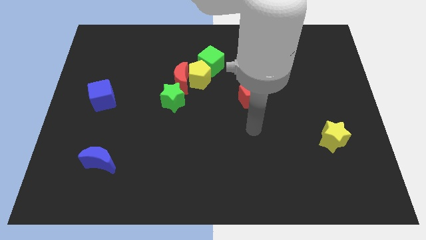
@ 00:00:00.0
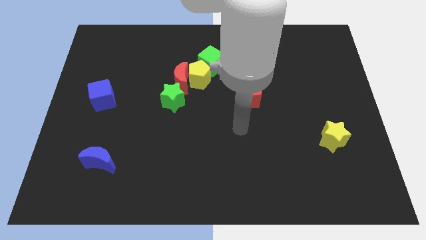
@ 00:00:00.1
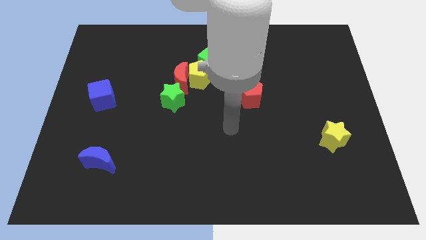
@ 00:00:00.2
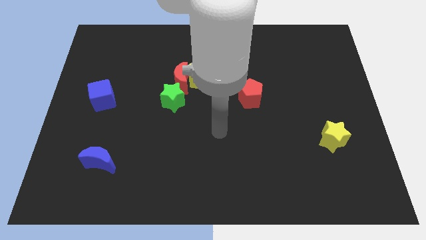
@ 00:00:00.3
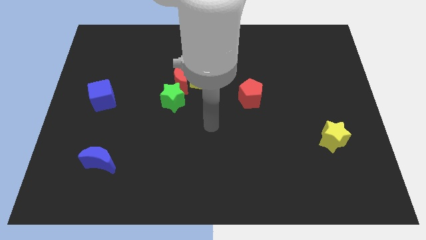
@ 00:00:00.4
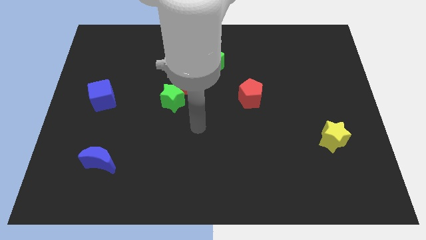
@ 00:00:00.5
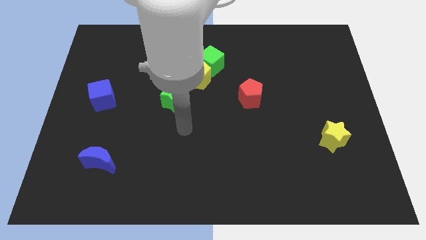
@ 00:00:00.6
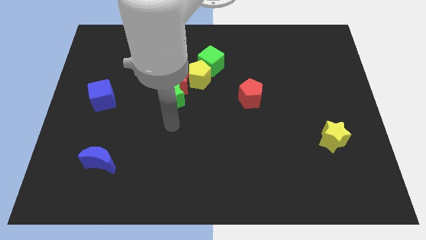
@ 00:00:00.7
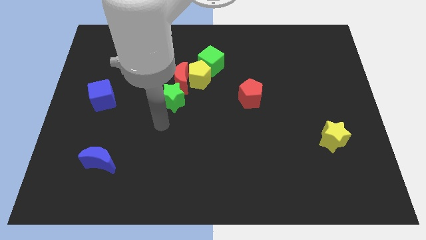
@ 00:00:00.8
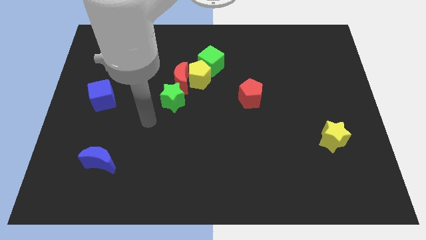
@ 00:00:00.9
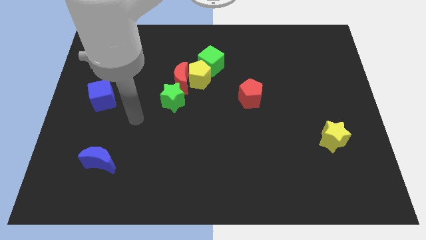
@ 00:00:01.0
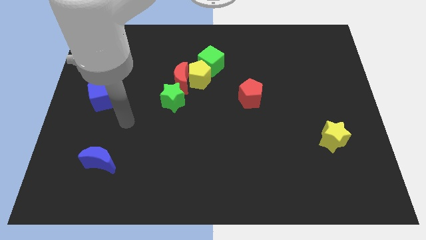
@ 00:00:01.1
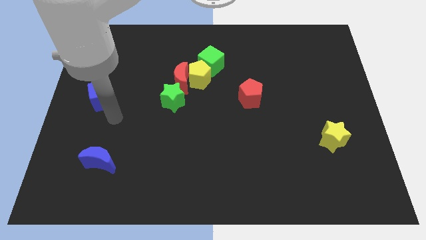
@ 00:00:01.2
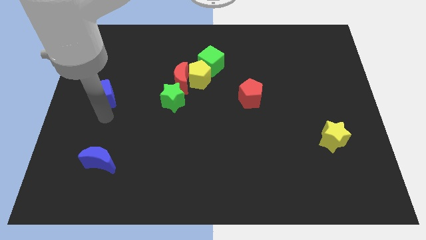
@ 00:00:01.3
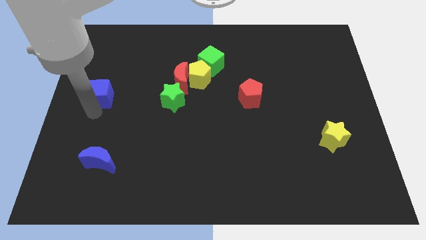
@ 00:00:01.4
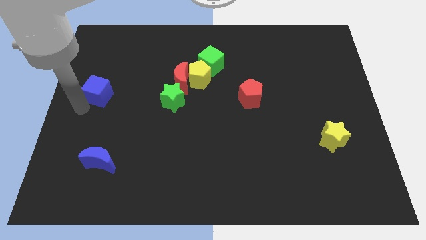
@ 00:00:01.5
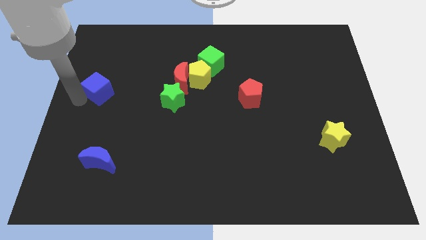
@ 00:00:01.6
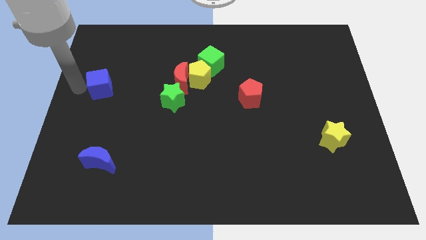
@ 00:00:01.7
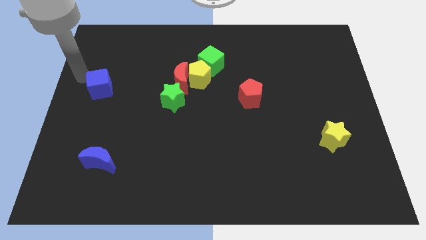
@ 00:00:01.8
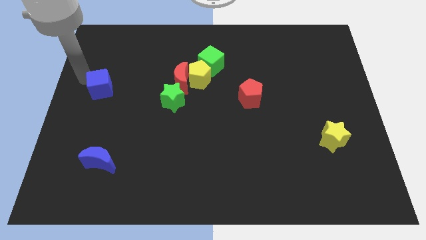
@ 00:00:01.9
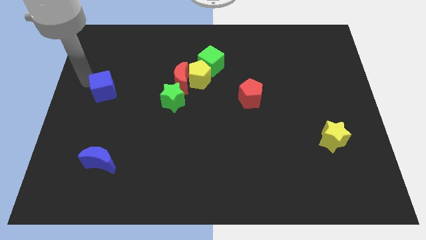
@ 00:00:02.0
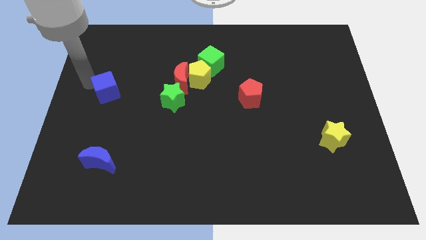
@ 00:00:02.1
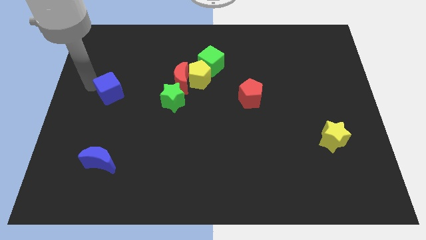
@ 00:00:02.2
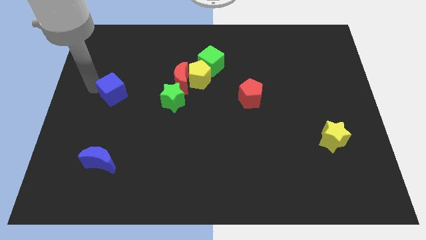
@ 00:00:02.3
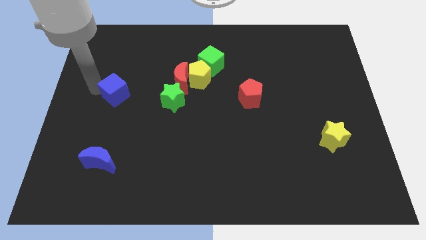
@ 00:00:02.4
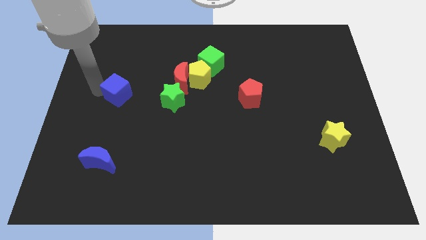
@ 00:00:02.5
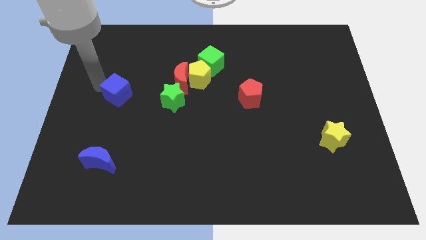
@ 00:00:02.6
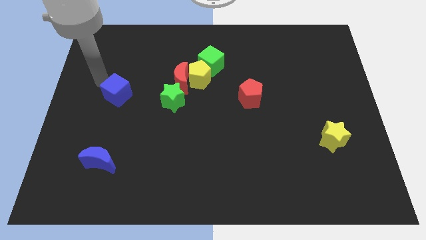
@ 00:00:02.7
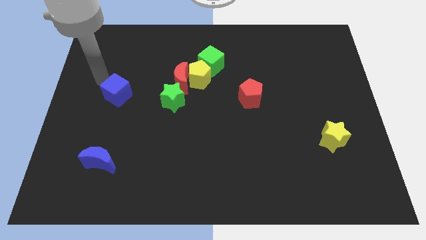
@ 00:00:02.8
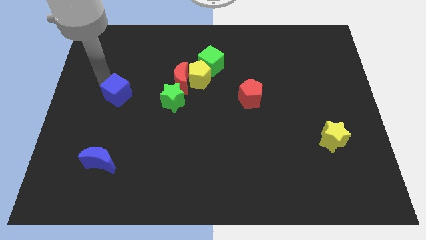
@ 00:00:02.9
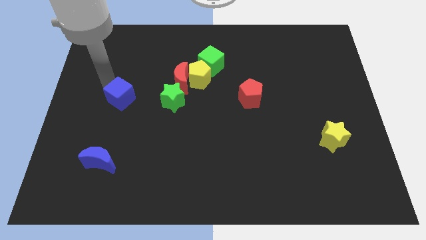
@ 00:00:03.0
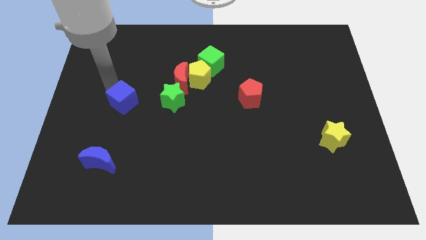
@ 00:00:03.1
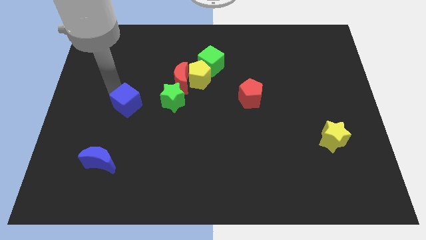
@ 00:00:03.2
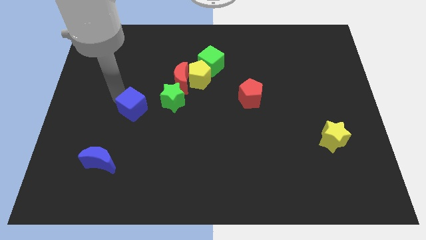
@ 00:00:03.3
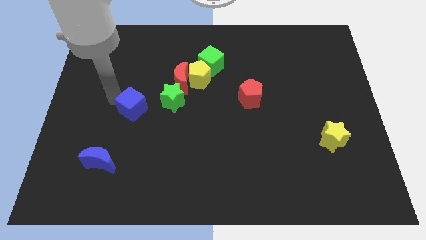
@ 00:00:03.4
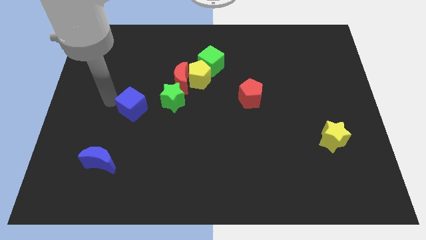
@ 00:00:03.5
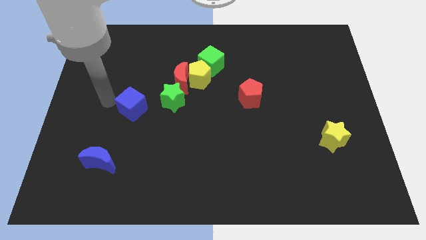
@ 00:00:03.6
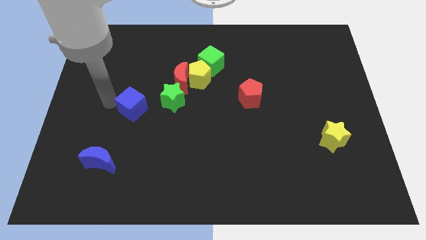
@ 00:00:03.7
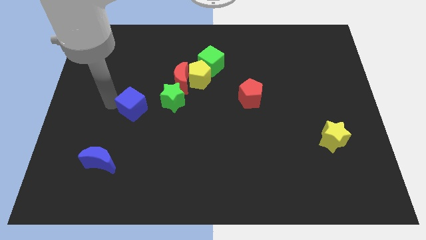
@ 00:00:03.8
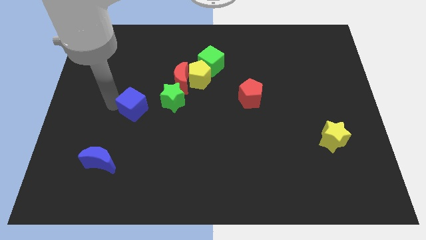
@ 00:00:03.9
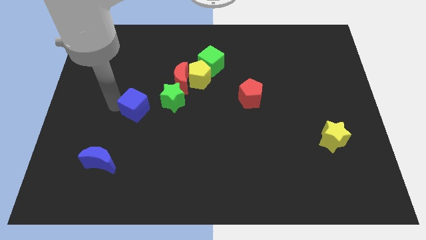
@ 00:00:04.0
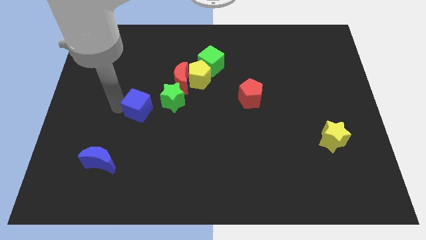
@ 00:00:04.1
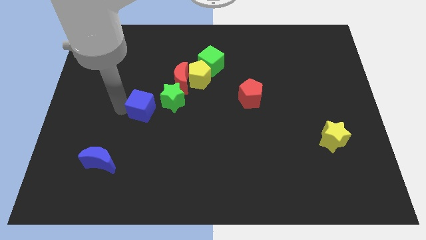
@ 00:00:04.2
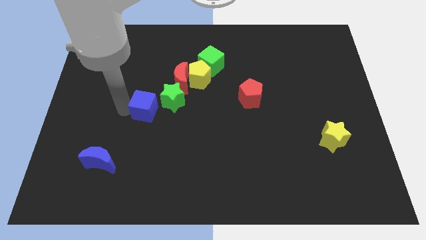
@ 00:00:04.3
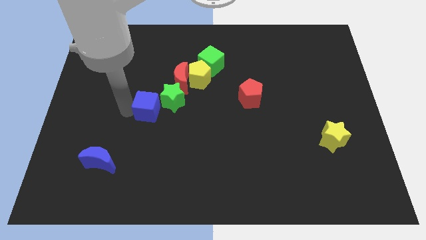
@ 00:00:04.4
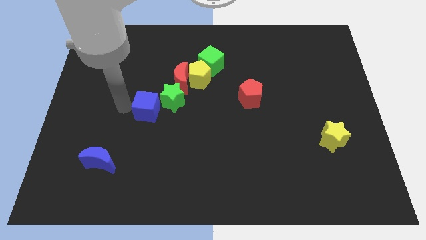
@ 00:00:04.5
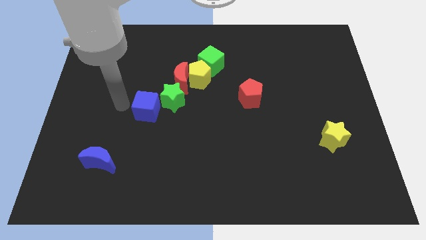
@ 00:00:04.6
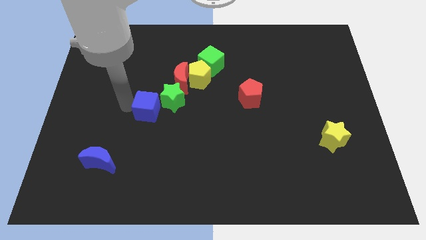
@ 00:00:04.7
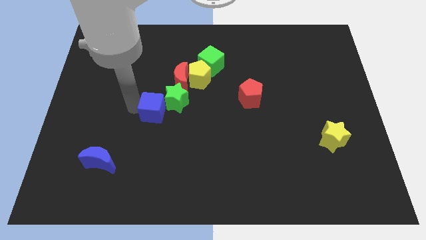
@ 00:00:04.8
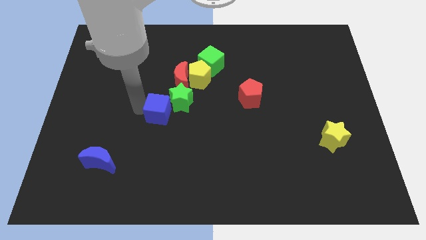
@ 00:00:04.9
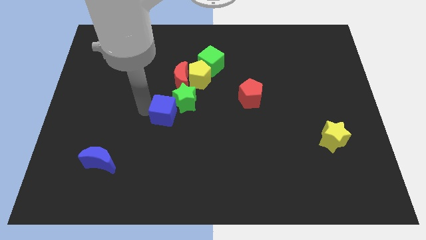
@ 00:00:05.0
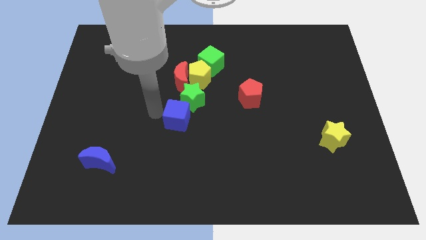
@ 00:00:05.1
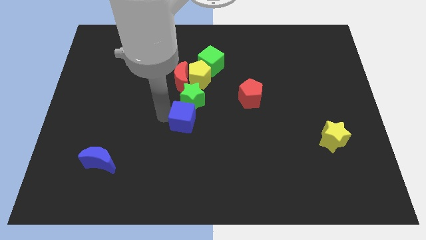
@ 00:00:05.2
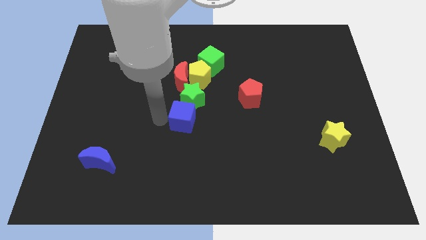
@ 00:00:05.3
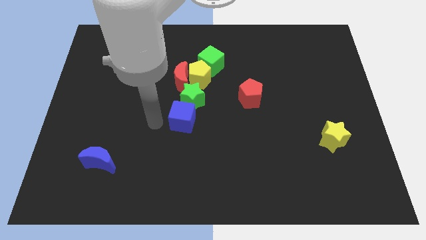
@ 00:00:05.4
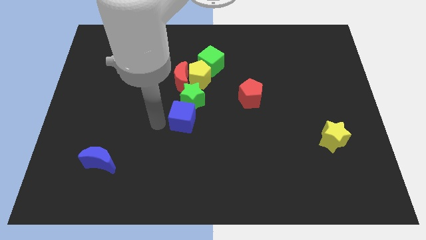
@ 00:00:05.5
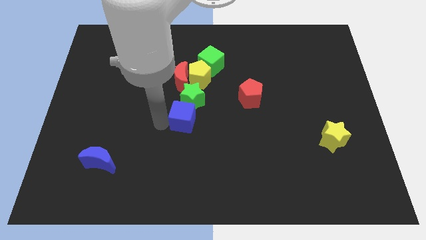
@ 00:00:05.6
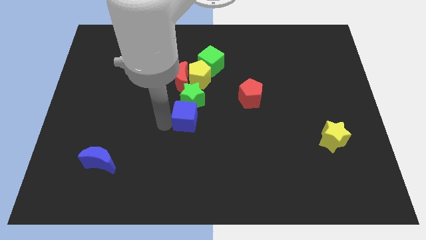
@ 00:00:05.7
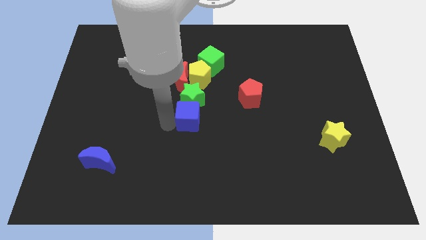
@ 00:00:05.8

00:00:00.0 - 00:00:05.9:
push the blue cube to the bottom right of the green star

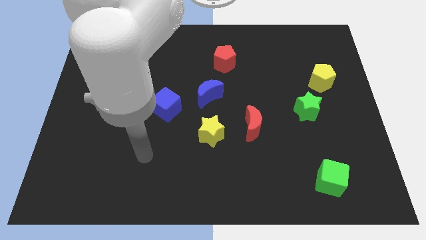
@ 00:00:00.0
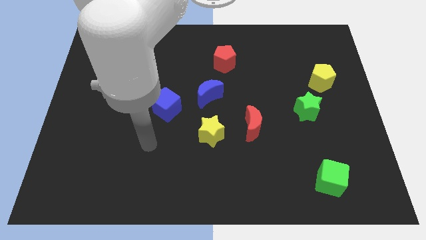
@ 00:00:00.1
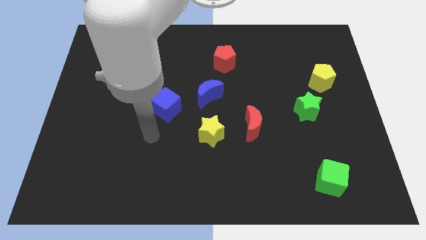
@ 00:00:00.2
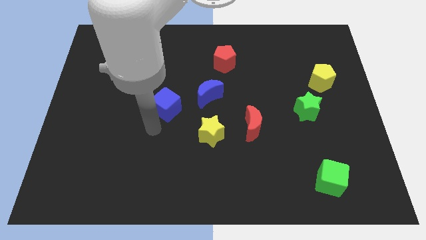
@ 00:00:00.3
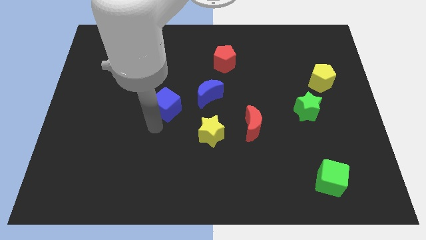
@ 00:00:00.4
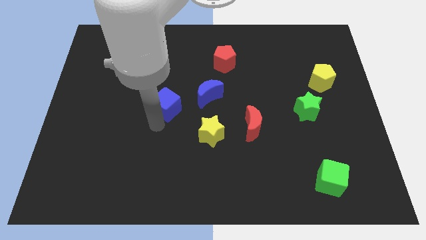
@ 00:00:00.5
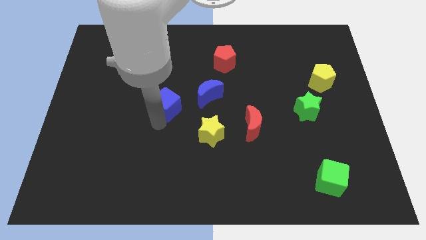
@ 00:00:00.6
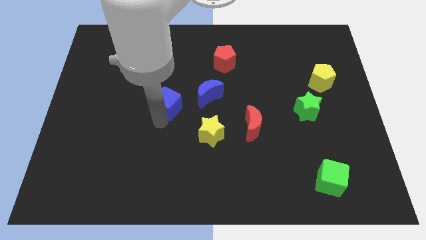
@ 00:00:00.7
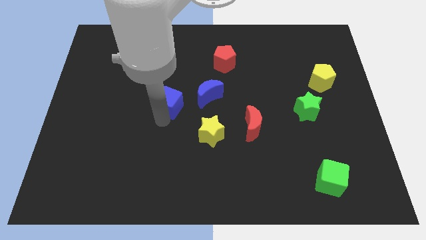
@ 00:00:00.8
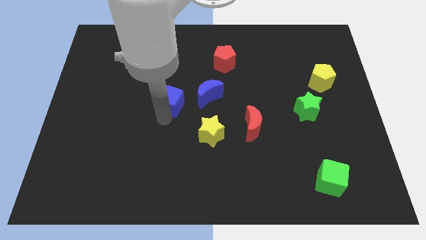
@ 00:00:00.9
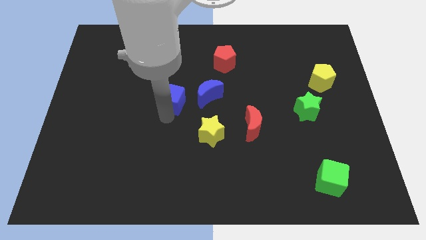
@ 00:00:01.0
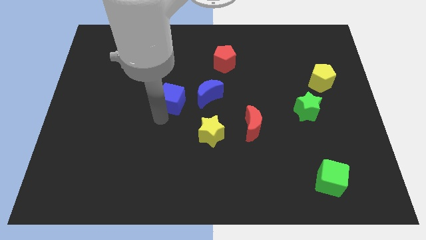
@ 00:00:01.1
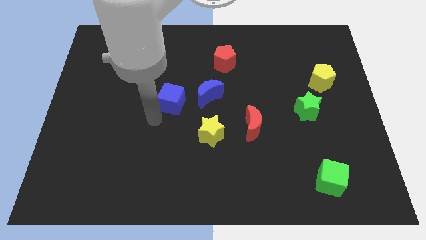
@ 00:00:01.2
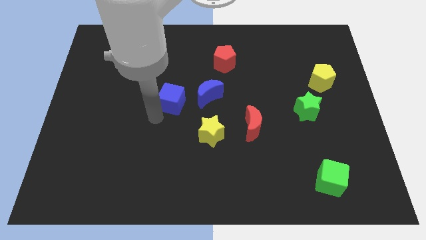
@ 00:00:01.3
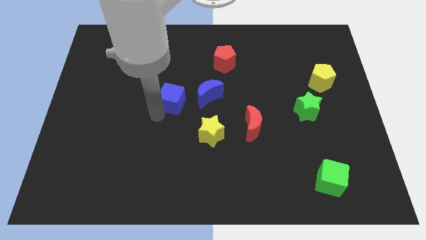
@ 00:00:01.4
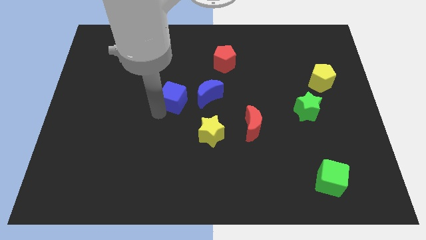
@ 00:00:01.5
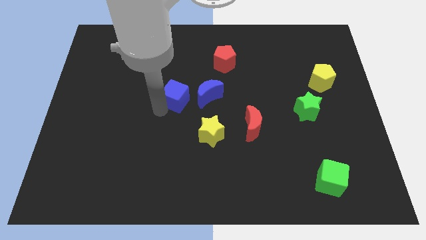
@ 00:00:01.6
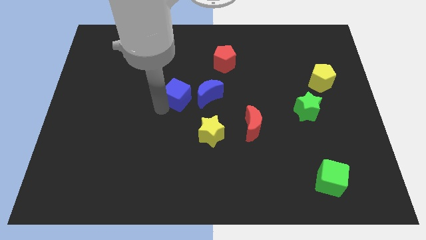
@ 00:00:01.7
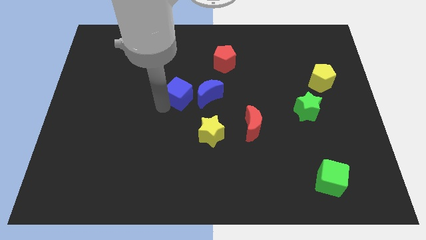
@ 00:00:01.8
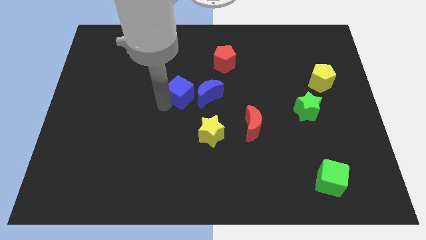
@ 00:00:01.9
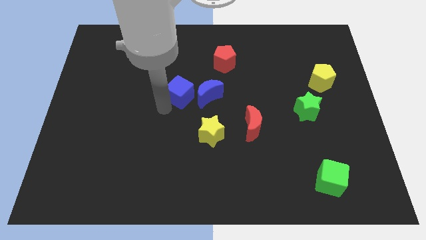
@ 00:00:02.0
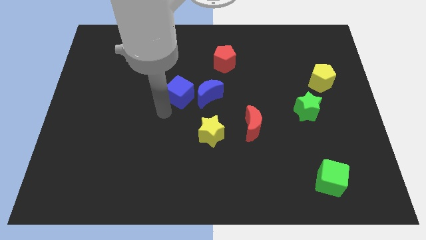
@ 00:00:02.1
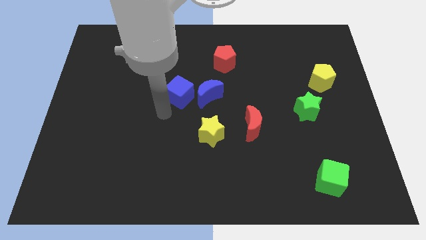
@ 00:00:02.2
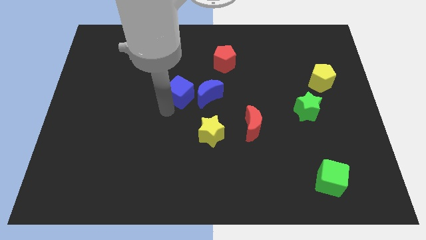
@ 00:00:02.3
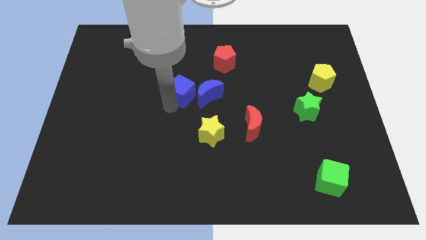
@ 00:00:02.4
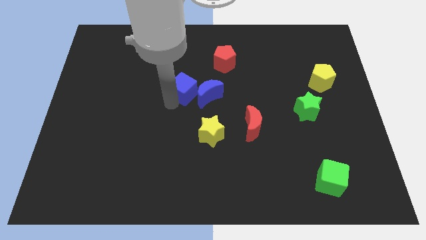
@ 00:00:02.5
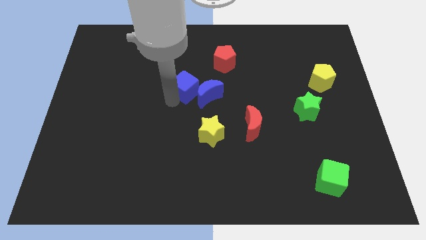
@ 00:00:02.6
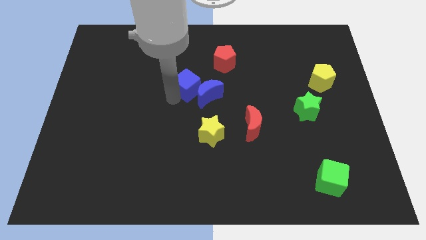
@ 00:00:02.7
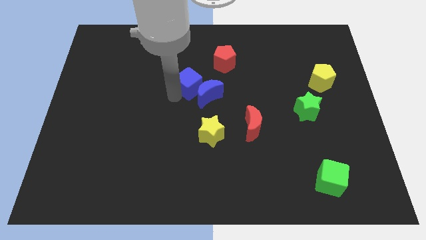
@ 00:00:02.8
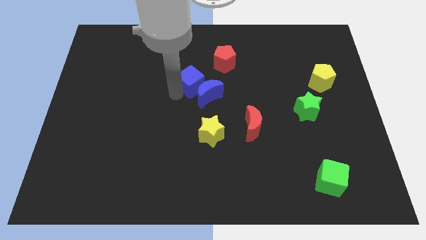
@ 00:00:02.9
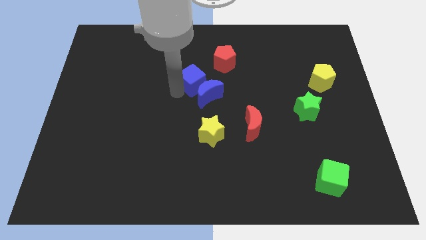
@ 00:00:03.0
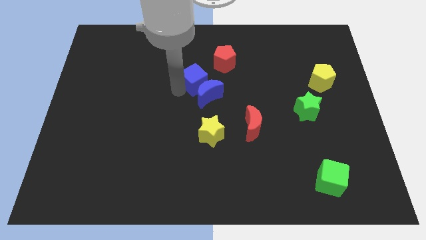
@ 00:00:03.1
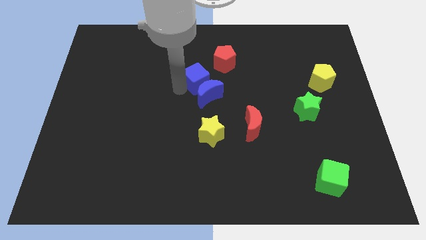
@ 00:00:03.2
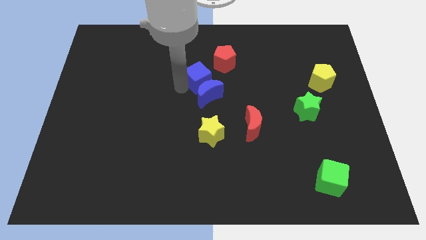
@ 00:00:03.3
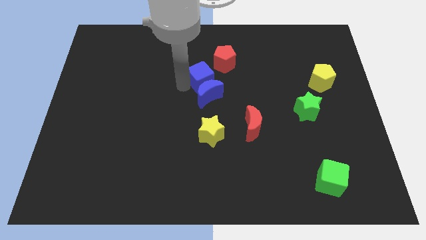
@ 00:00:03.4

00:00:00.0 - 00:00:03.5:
push the blue cube to the top side of the yellow star
